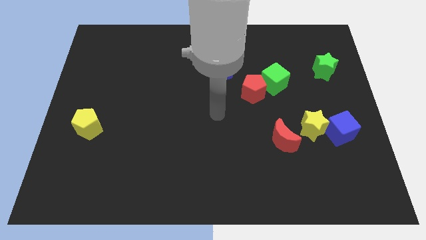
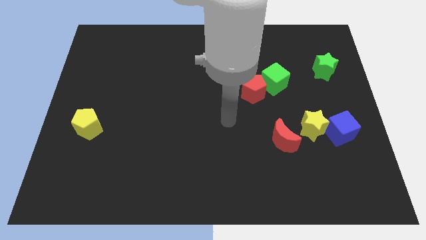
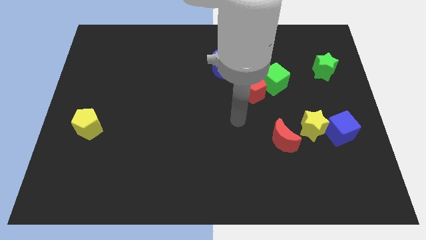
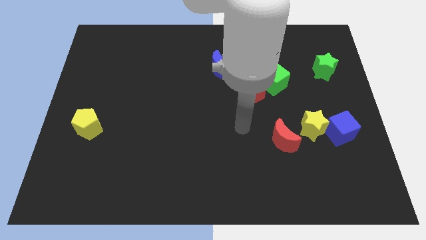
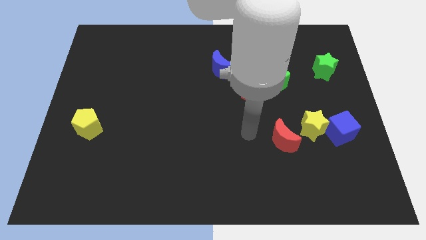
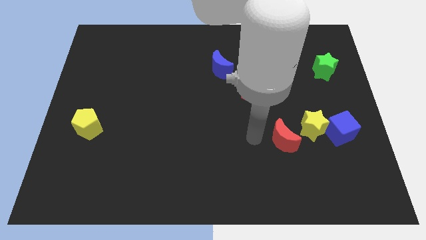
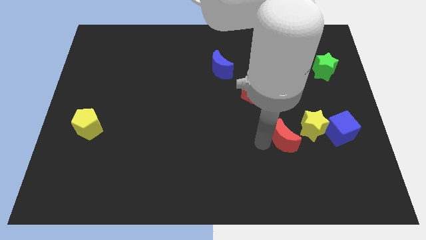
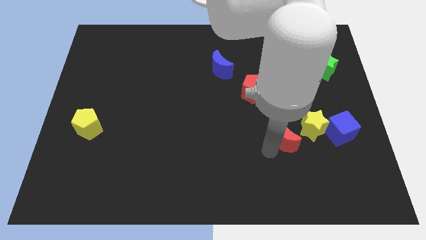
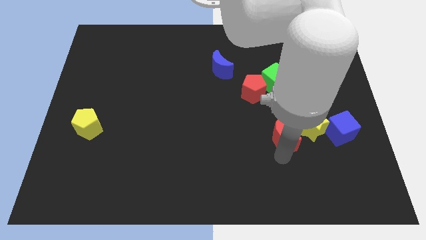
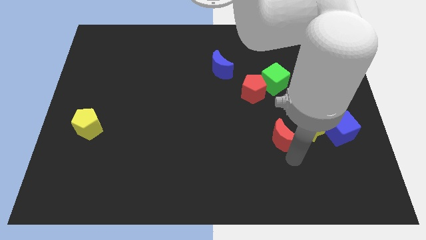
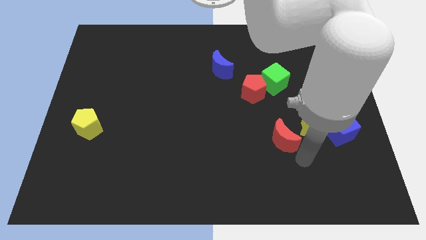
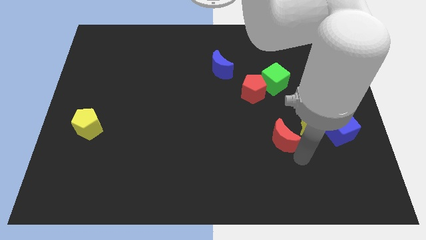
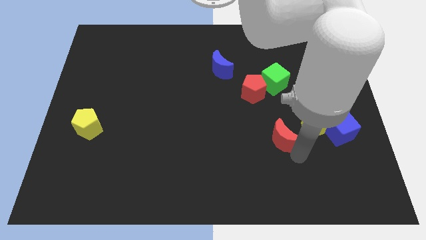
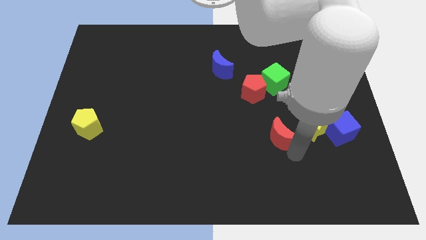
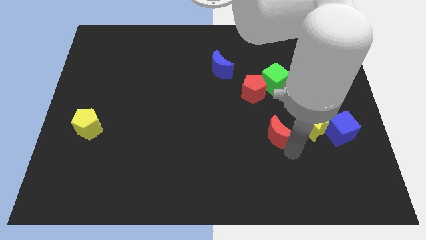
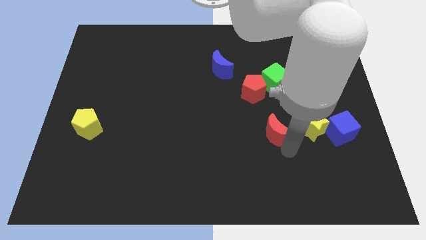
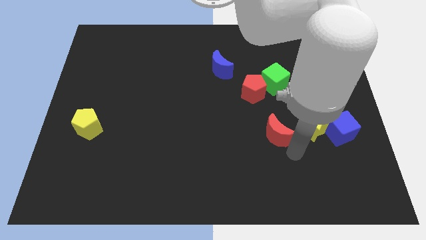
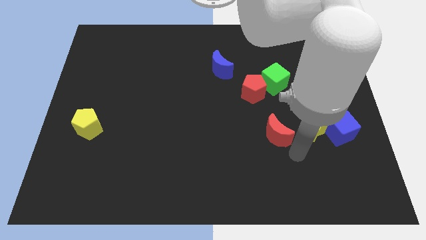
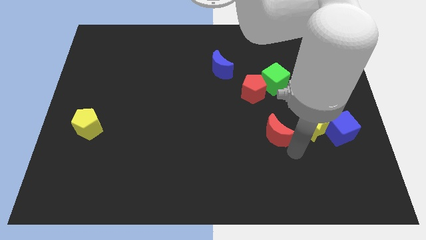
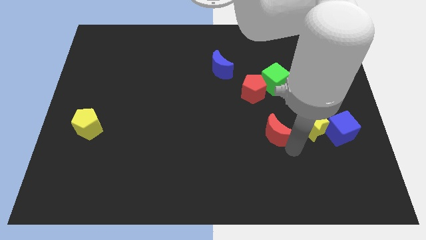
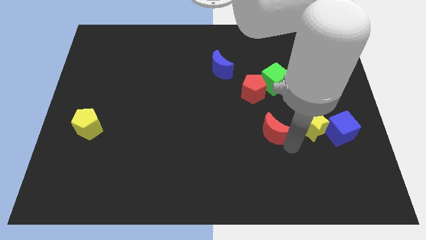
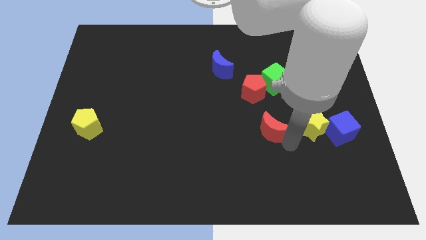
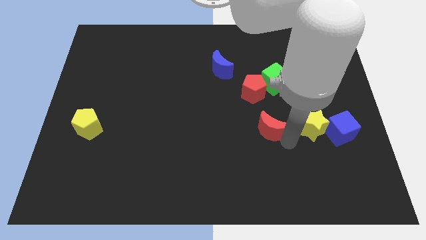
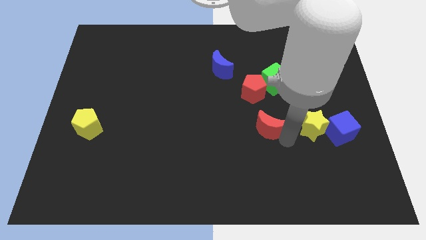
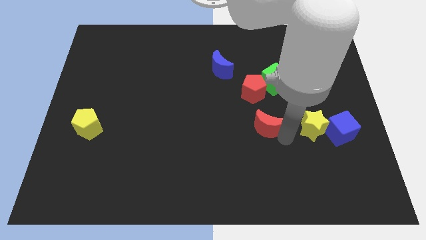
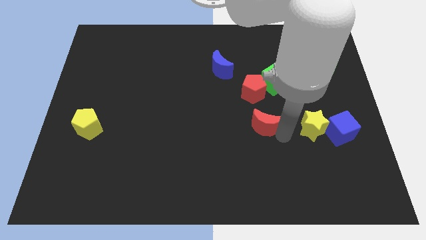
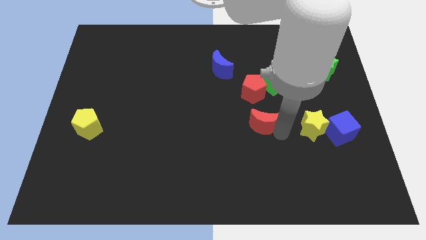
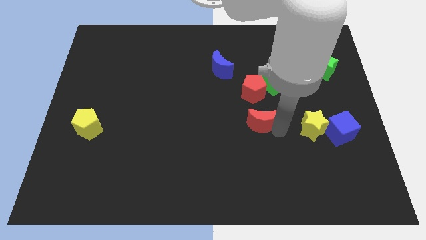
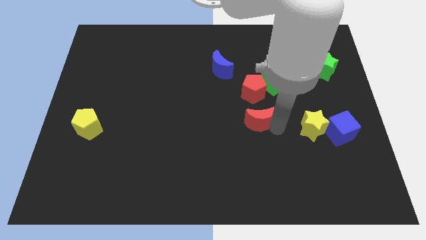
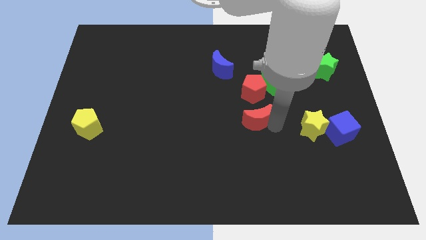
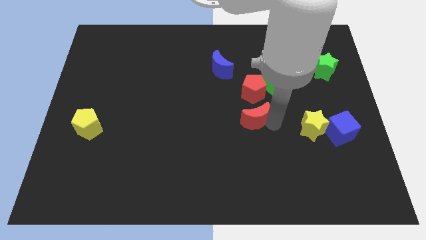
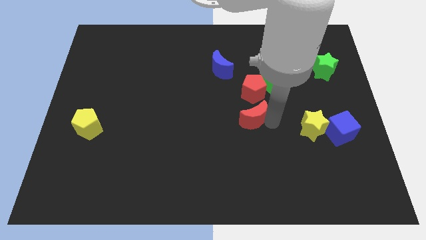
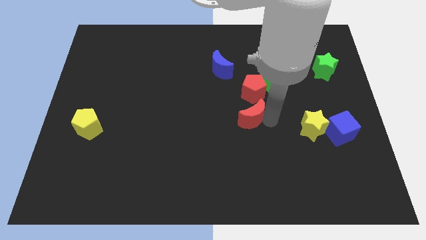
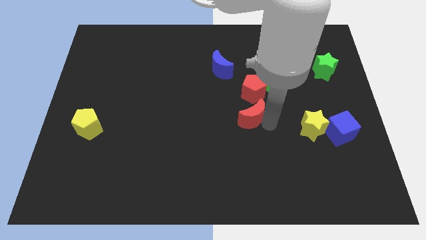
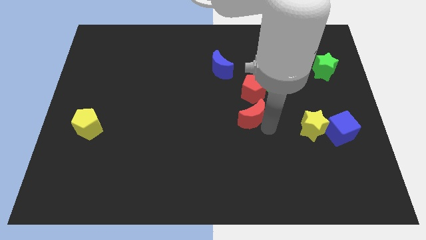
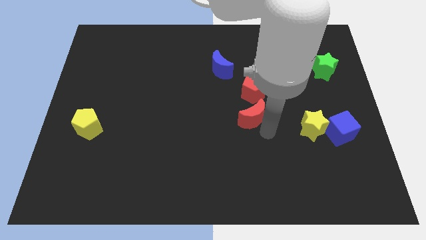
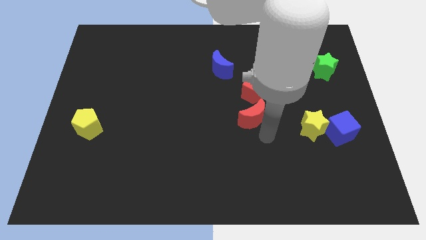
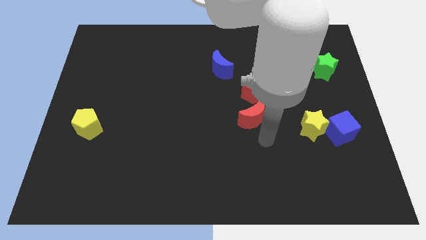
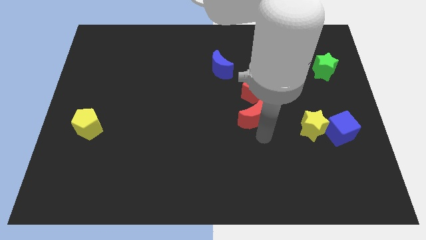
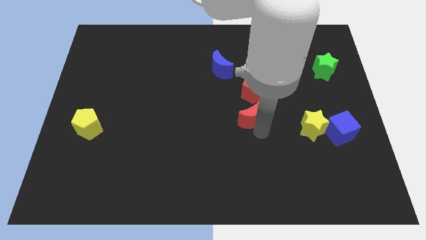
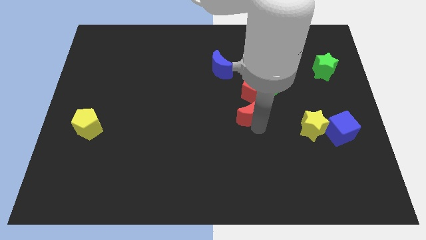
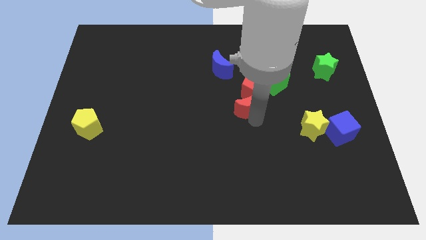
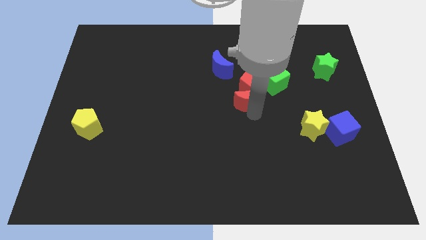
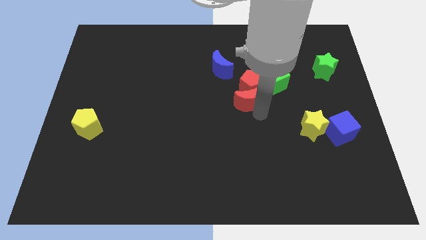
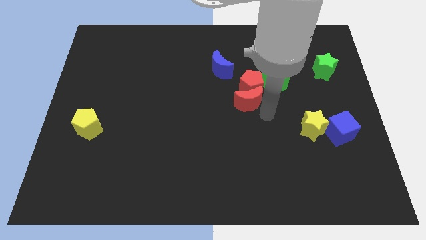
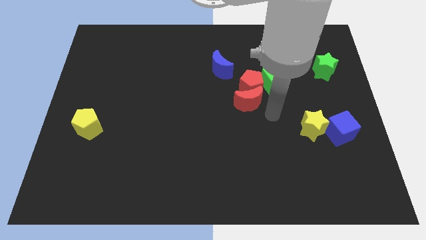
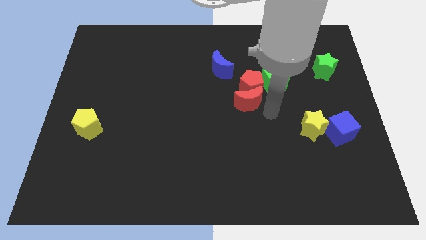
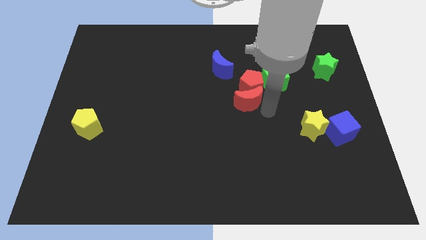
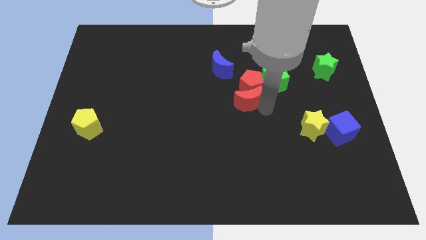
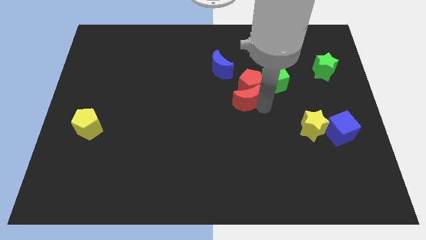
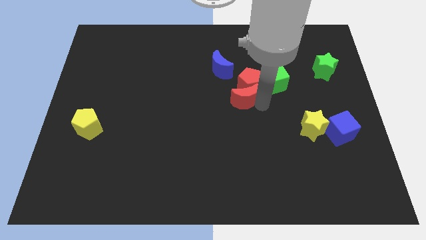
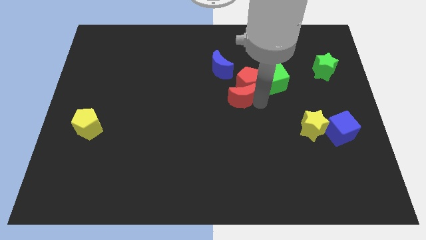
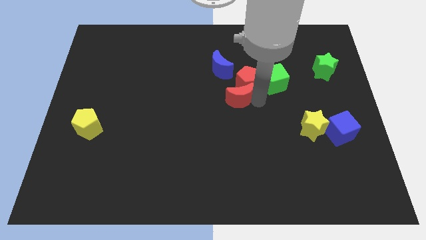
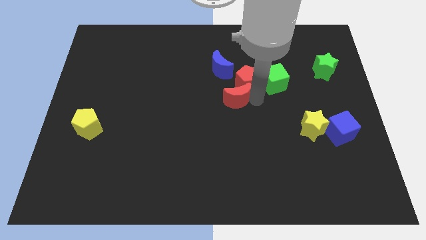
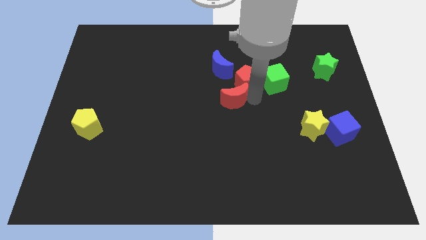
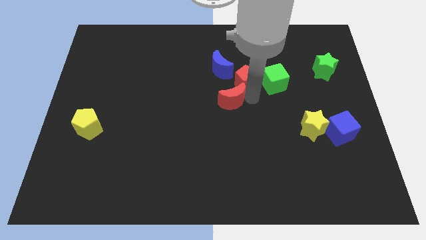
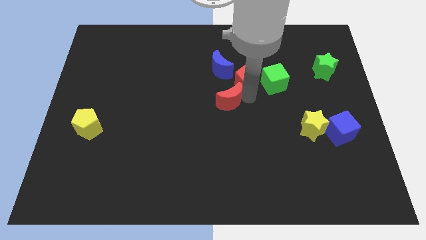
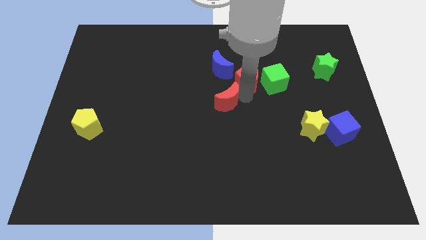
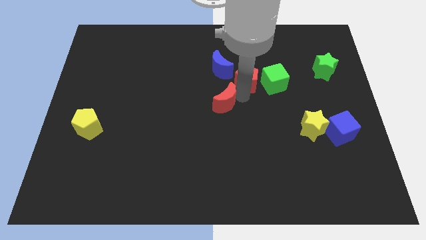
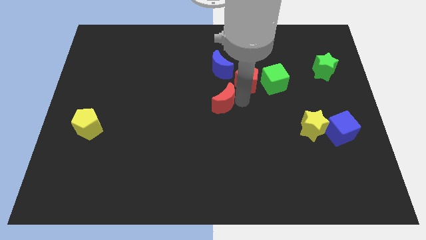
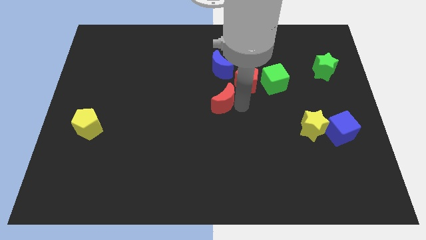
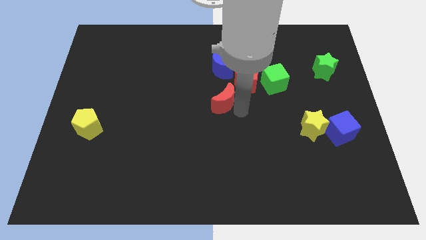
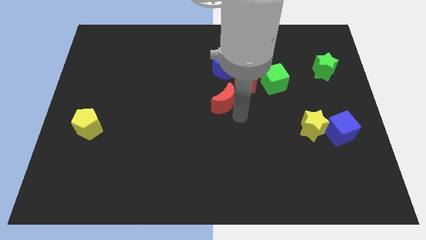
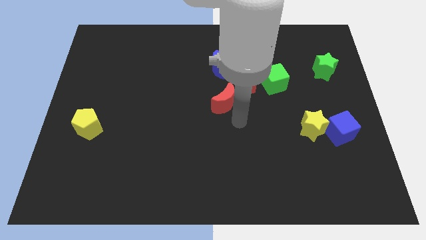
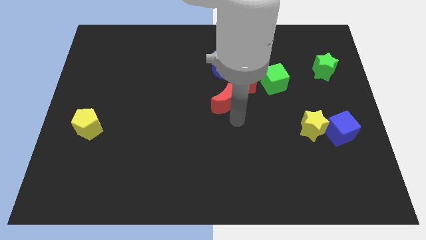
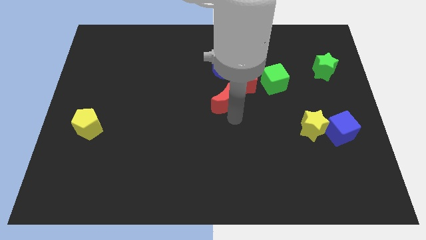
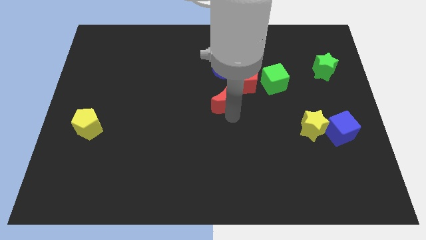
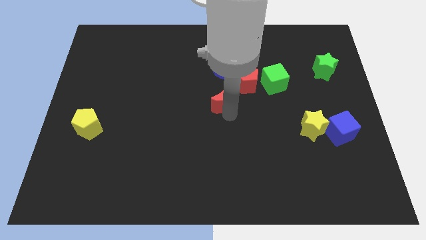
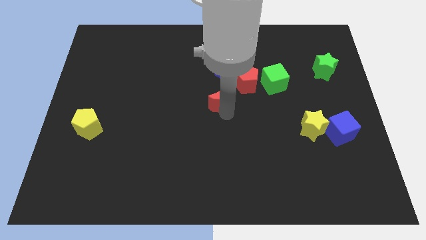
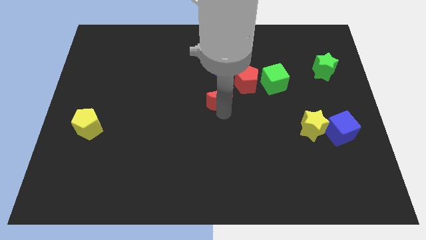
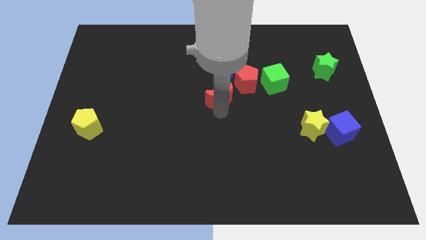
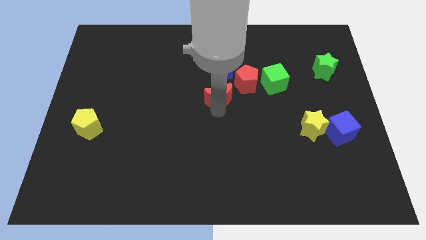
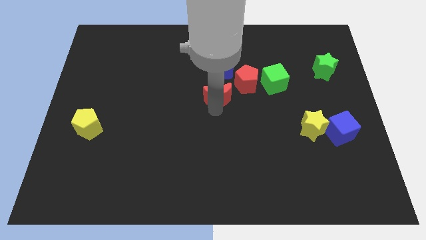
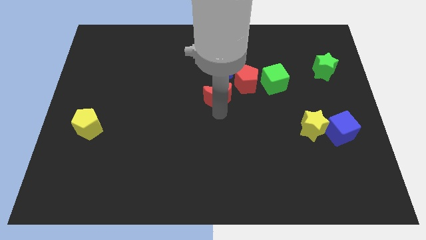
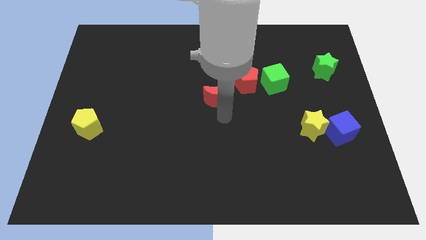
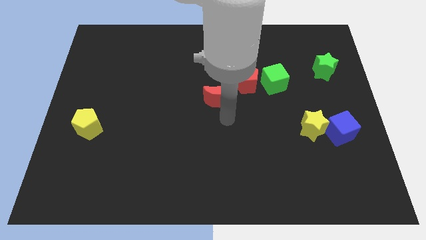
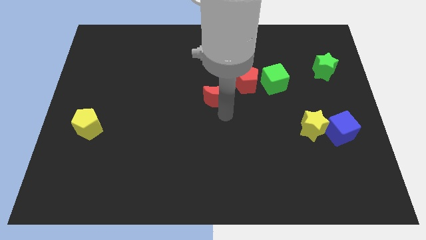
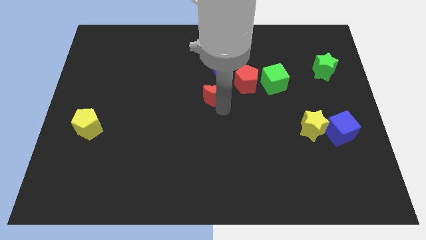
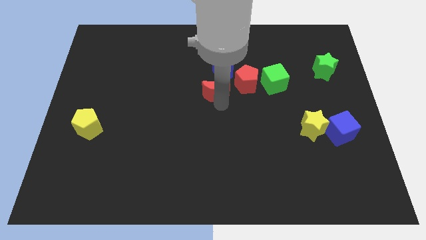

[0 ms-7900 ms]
move the red moon up and then left

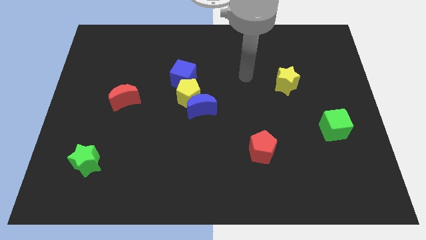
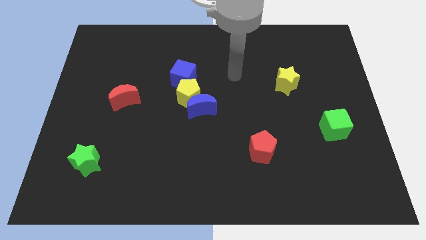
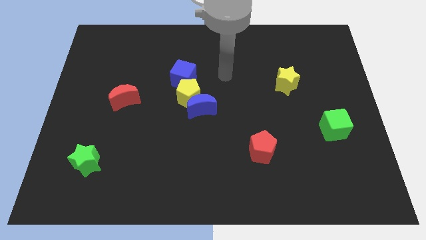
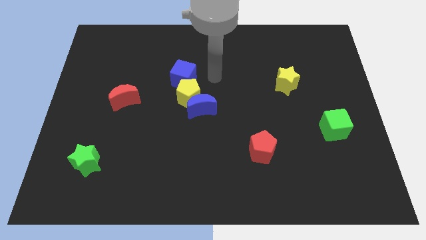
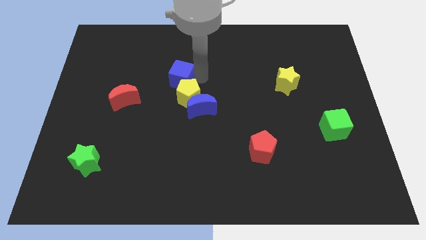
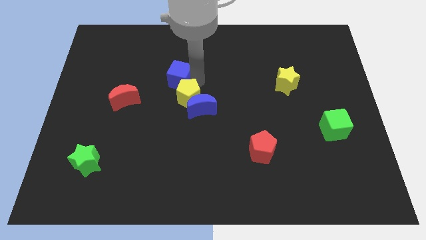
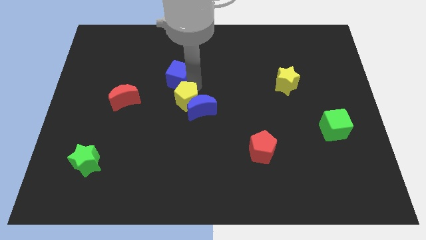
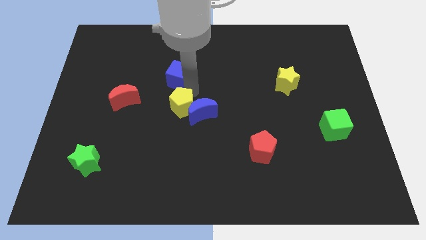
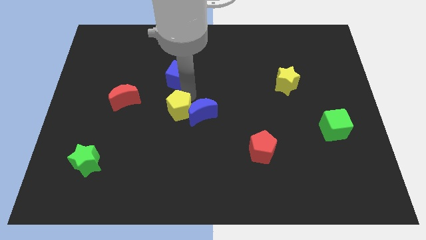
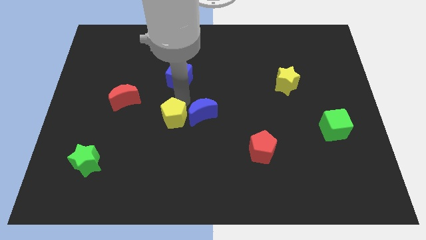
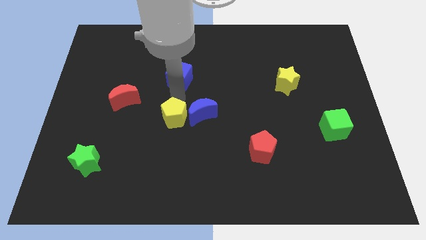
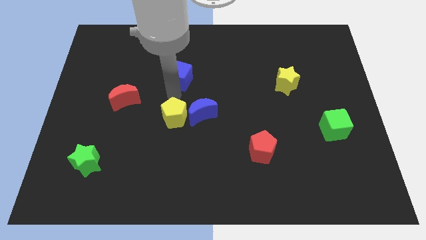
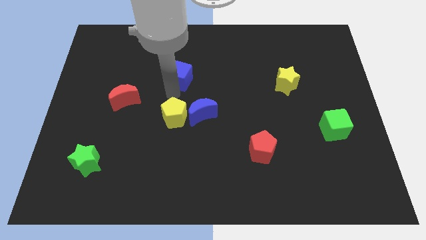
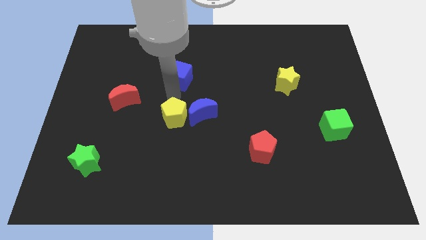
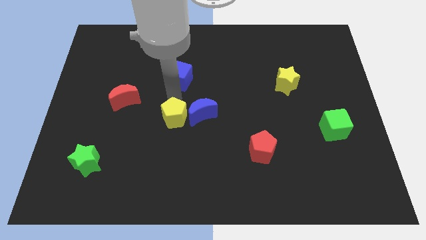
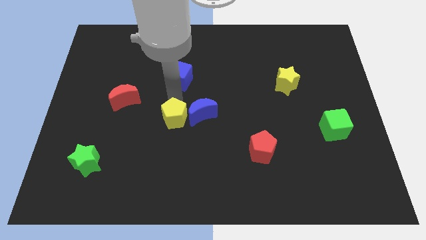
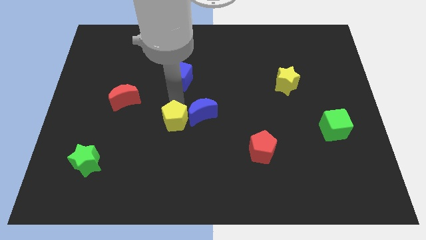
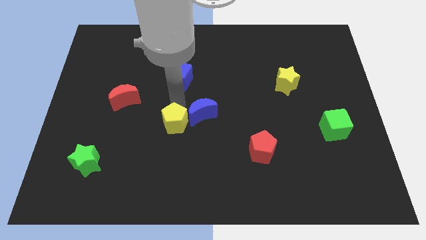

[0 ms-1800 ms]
slide the yellow pentagon downwards slightly
